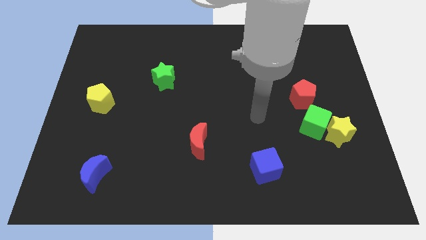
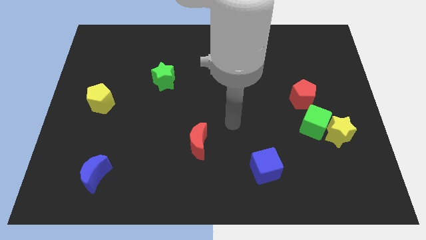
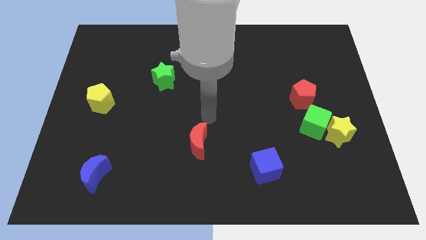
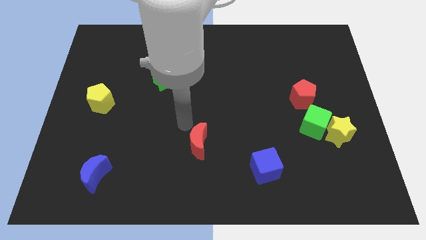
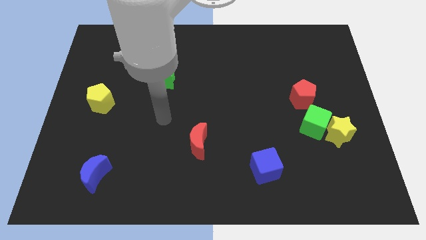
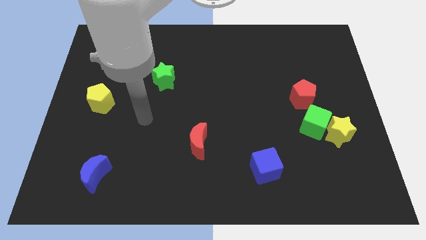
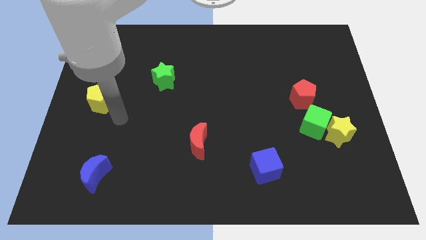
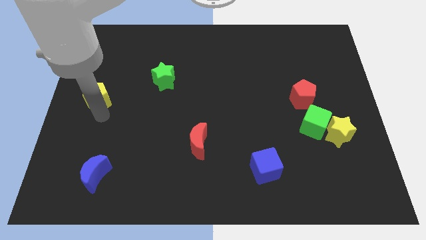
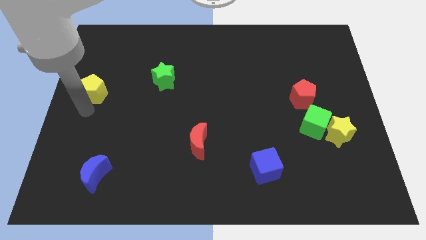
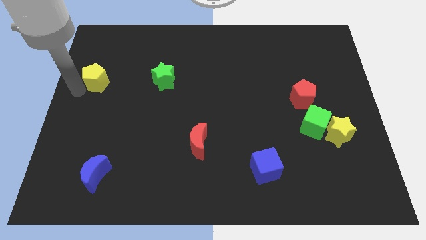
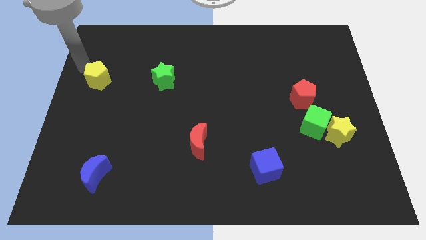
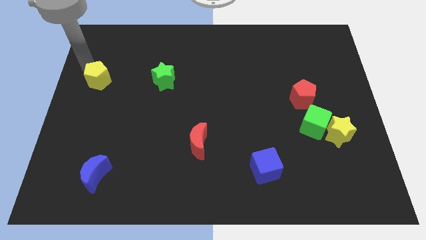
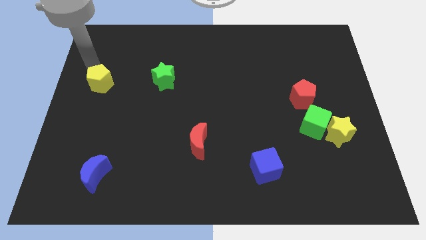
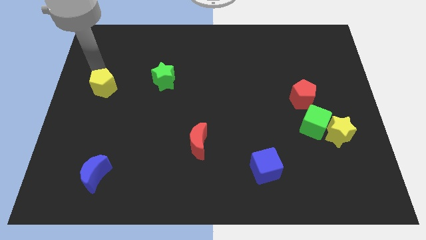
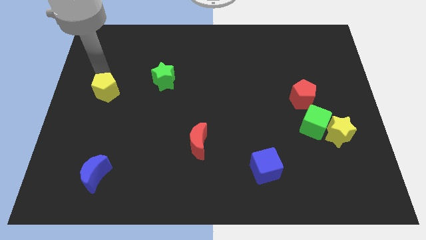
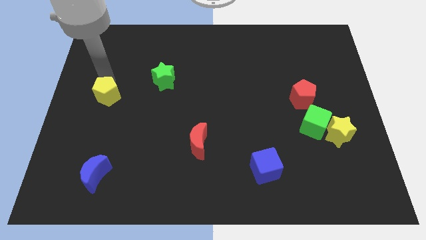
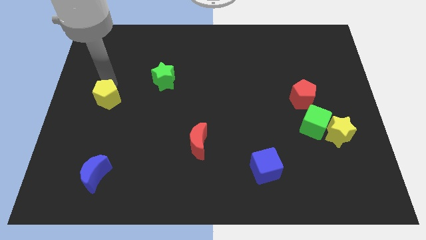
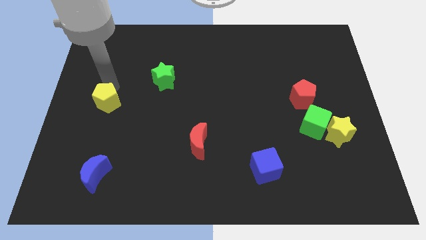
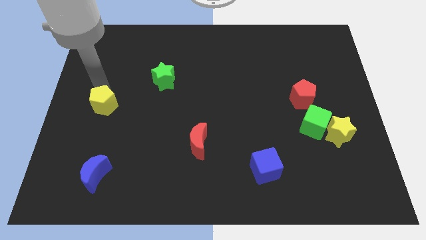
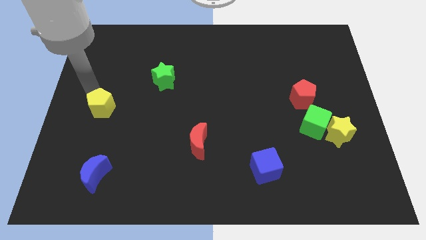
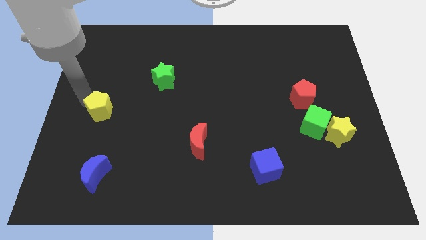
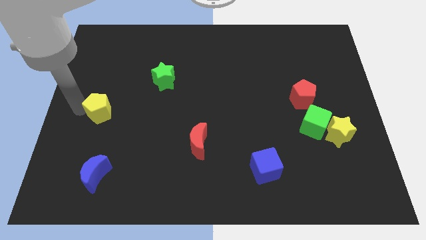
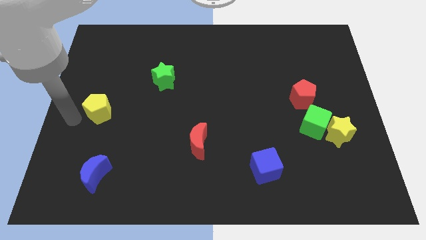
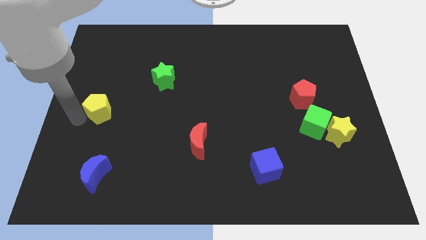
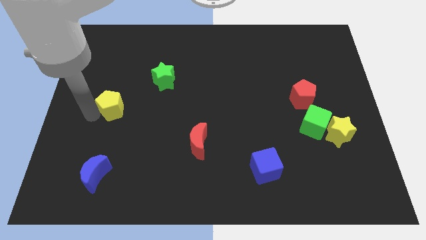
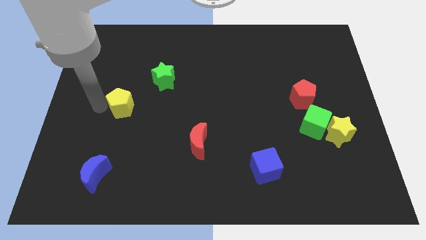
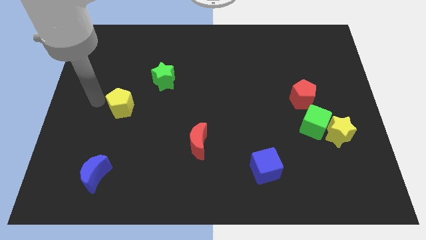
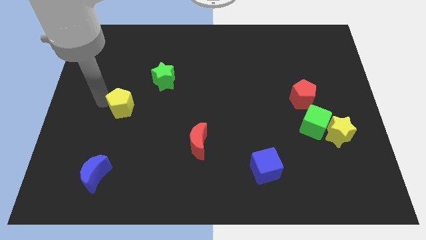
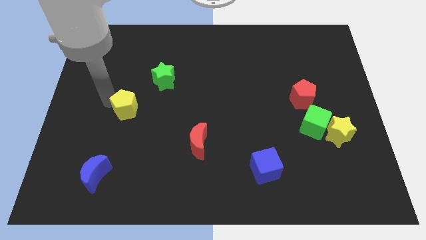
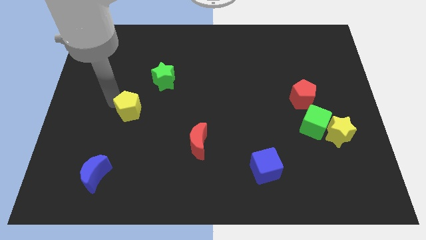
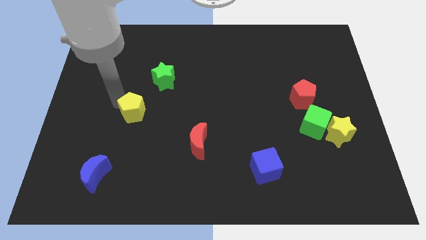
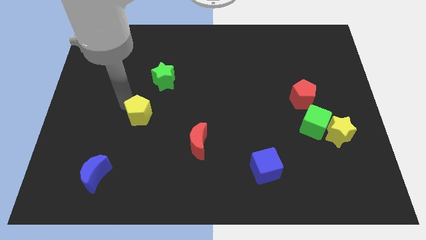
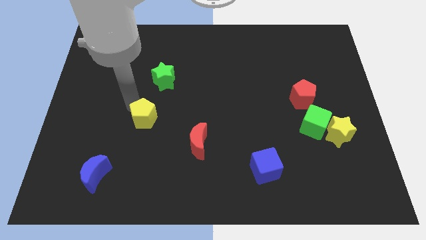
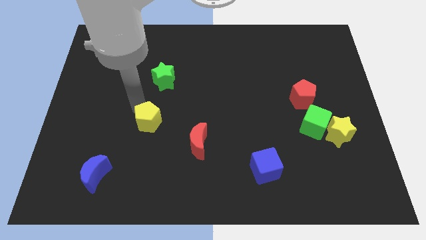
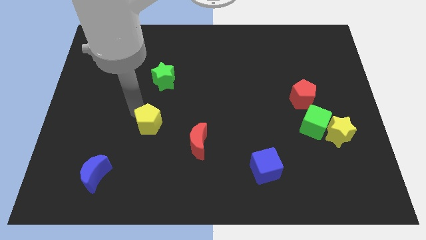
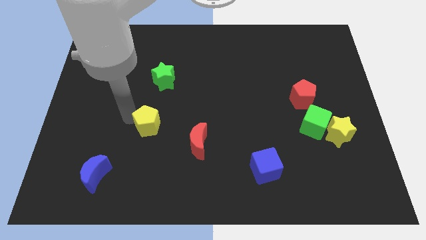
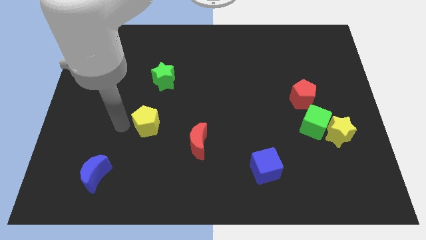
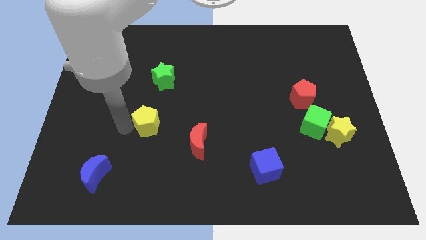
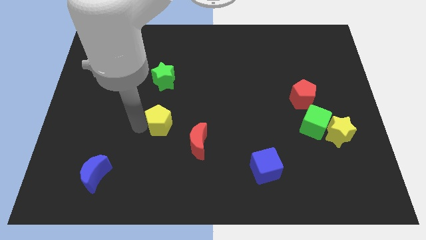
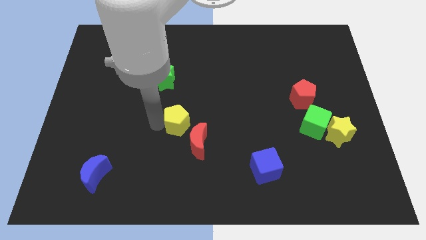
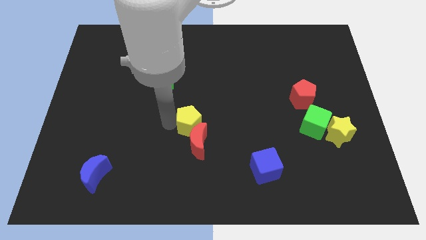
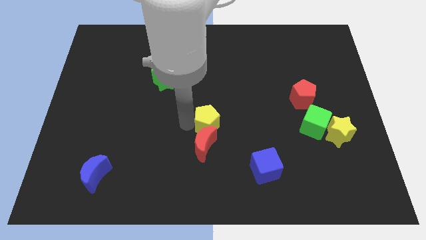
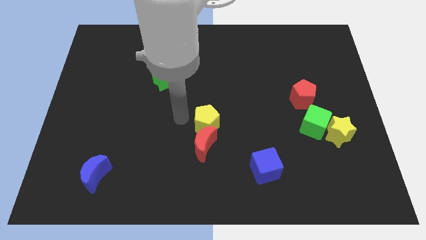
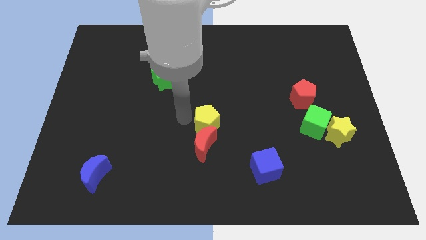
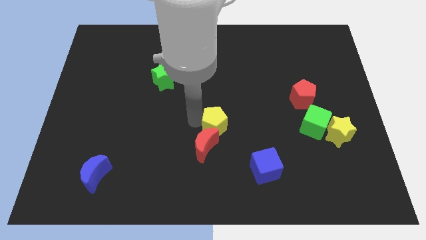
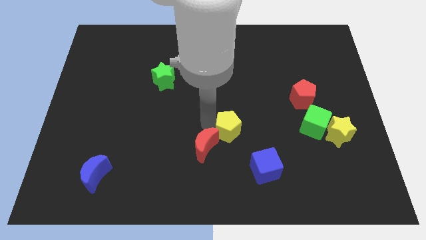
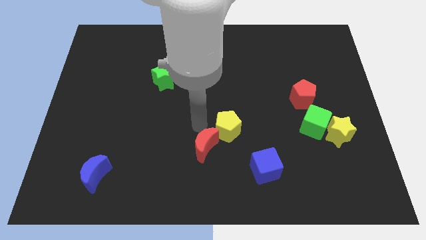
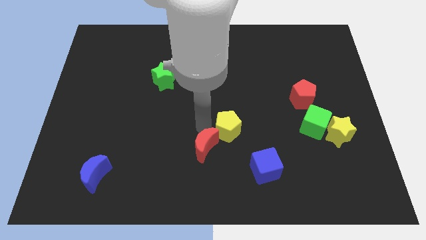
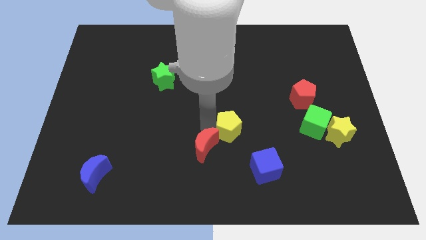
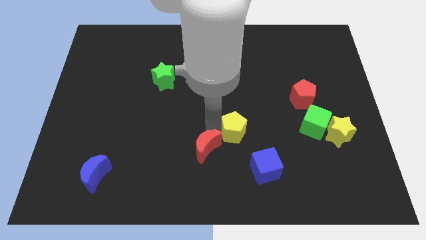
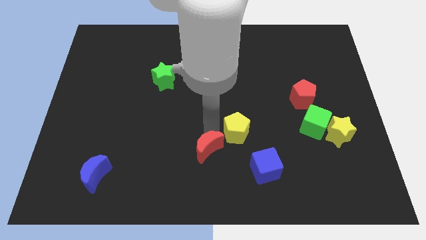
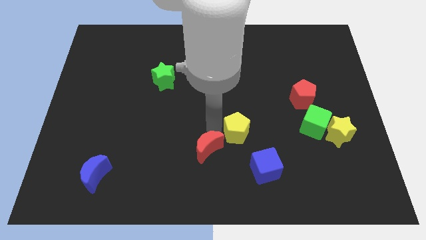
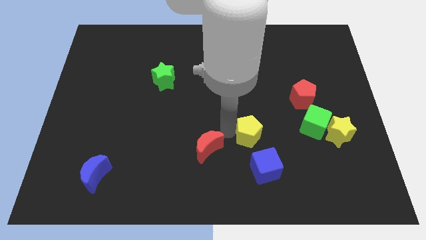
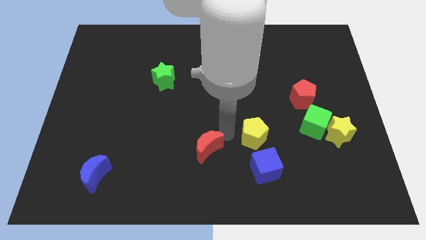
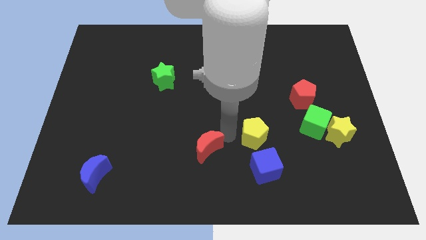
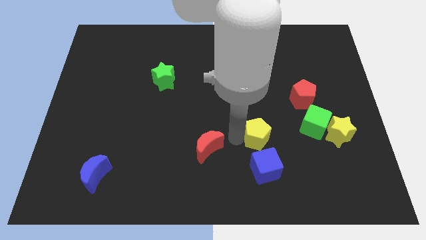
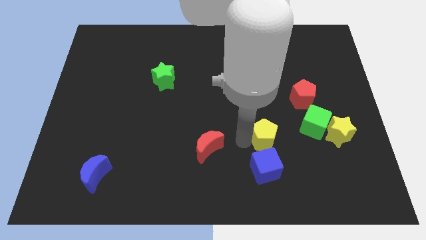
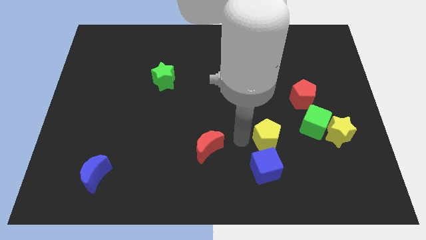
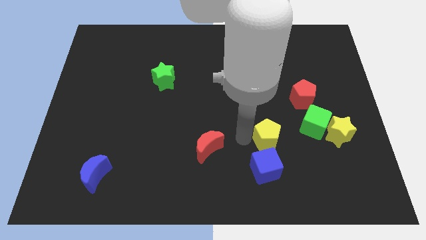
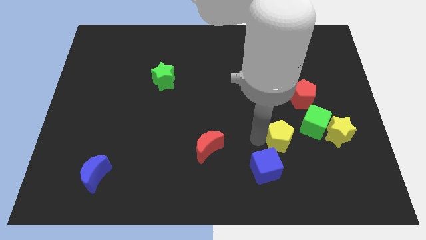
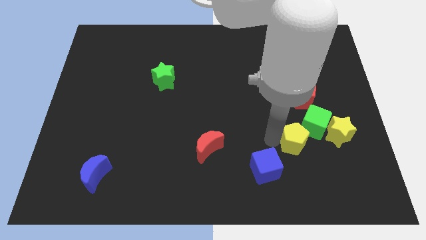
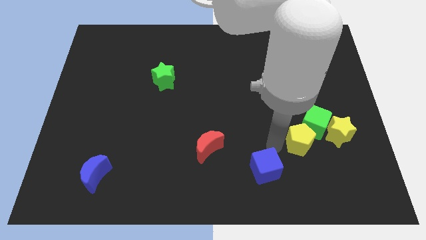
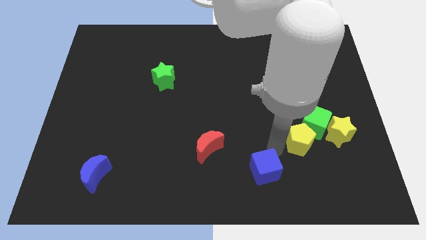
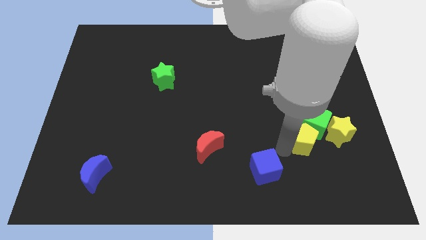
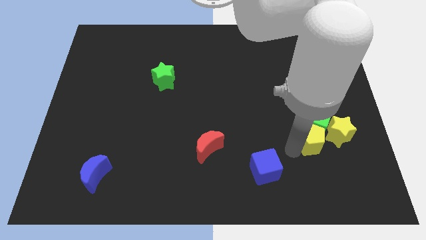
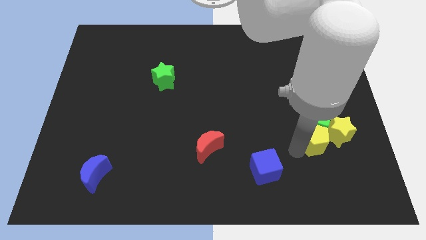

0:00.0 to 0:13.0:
move the yellow pentagon towards the yellow star

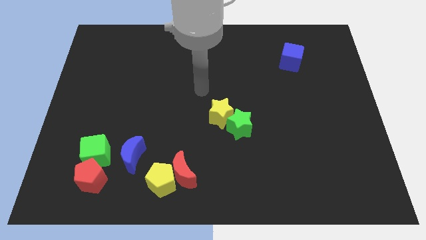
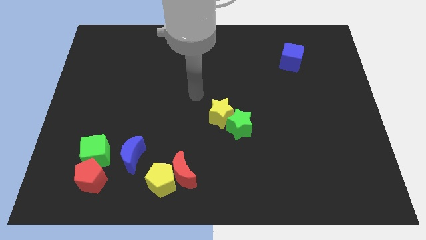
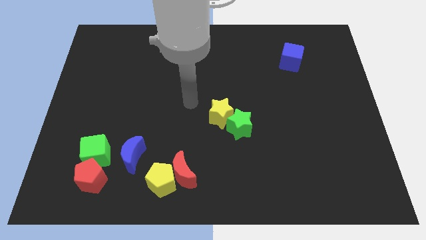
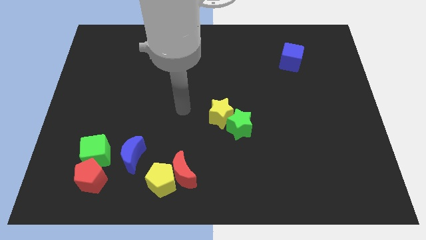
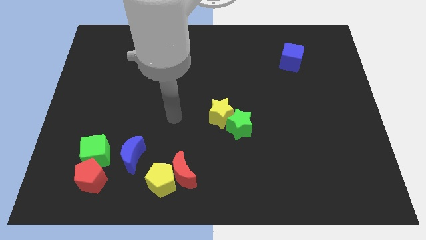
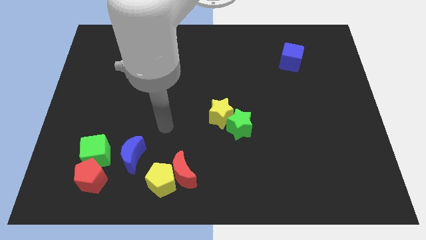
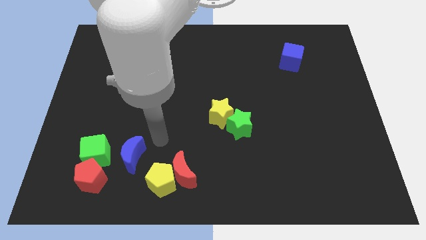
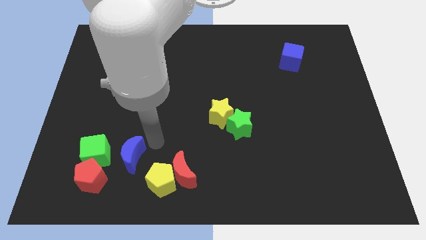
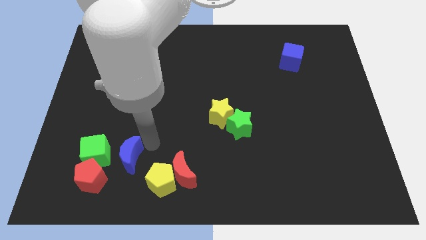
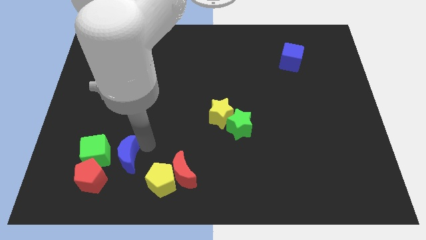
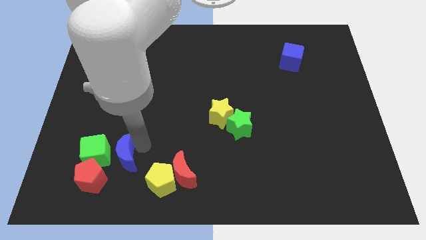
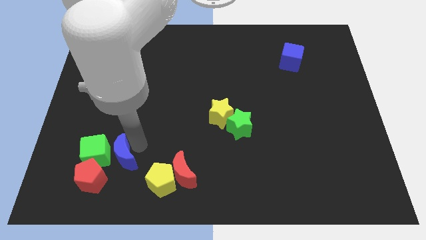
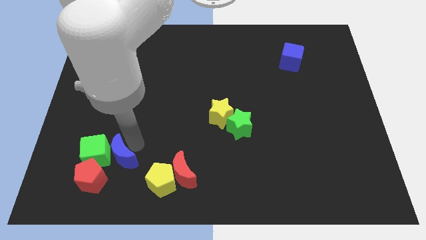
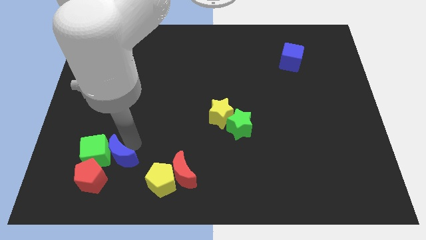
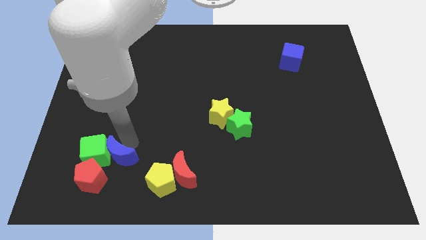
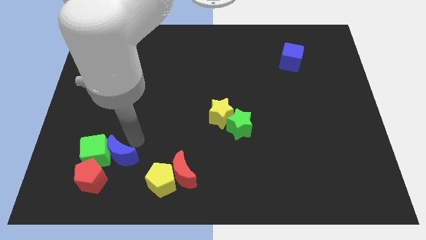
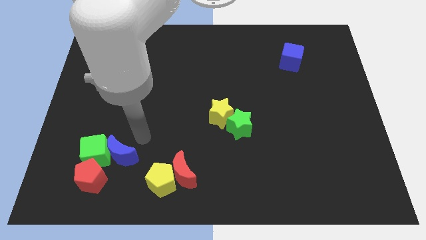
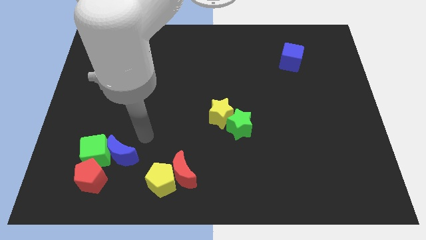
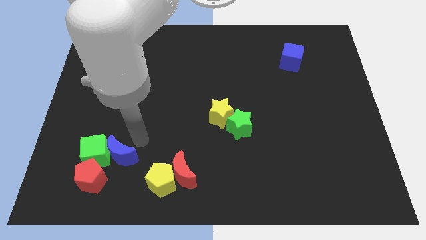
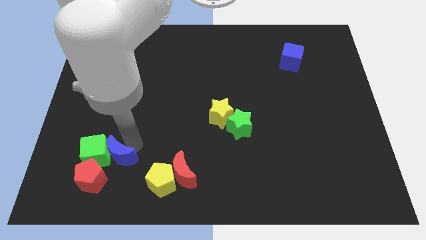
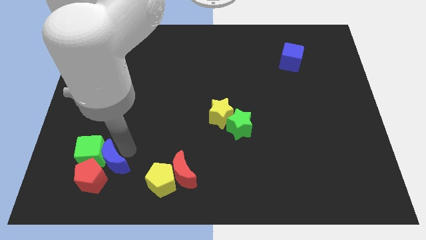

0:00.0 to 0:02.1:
move the blue moon to the red pentagon
